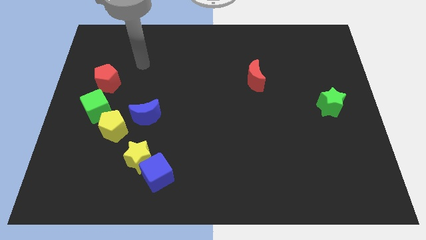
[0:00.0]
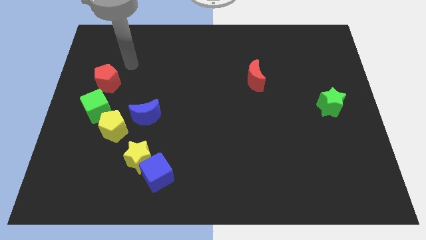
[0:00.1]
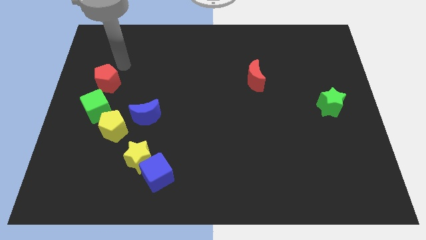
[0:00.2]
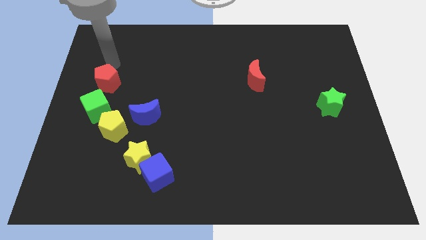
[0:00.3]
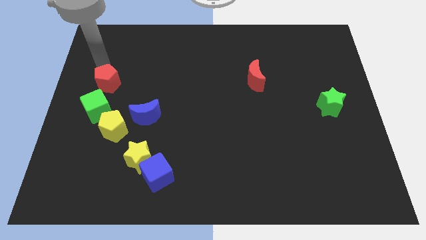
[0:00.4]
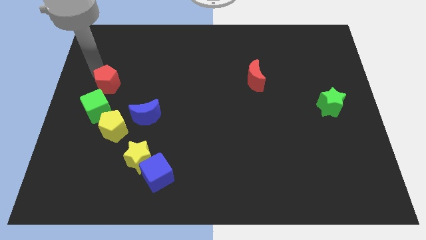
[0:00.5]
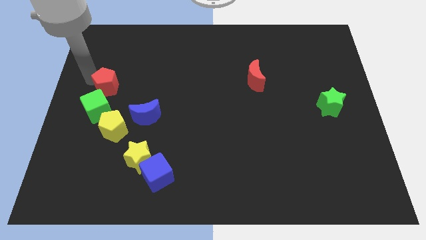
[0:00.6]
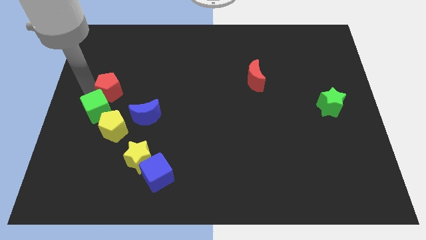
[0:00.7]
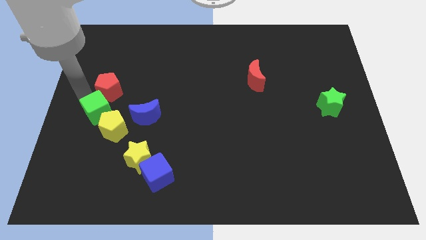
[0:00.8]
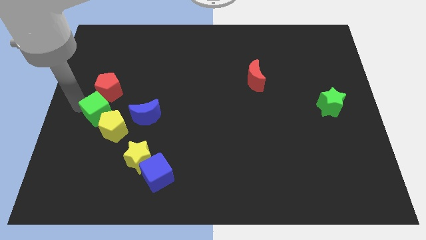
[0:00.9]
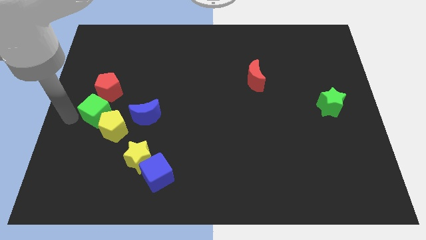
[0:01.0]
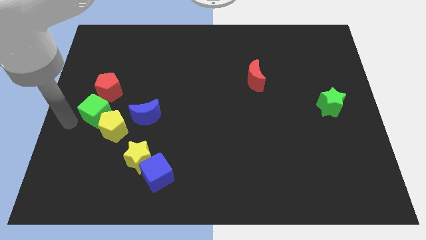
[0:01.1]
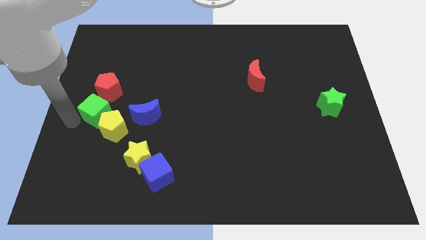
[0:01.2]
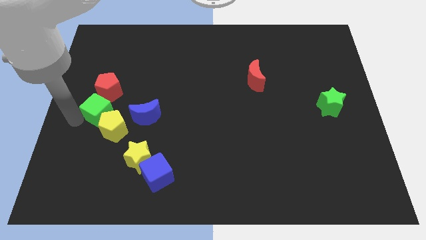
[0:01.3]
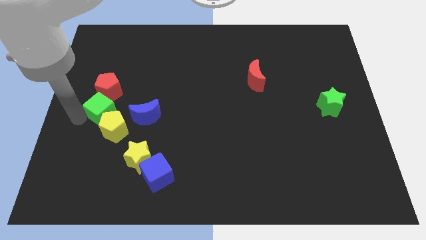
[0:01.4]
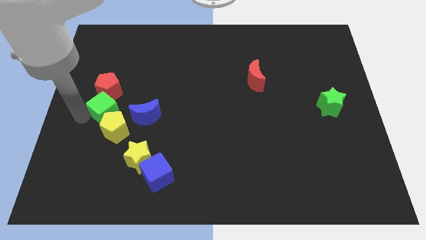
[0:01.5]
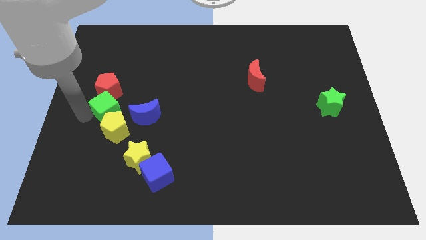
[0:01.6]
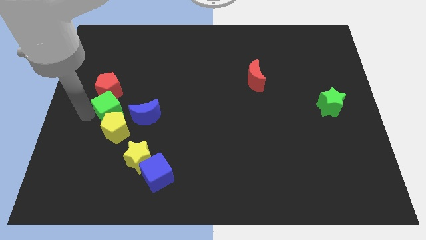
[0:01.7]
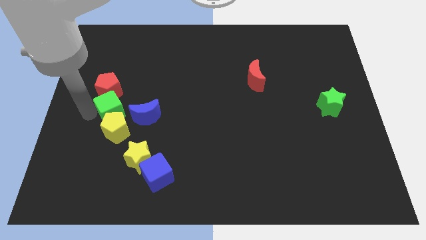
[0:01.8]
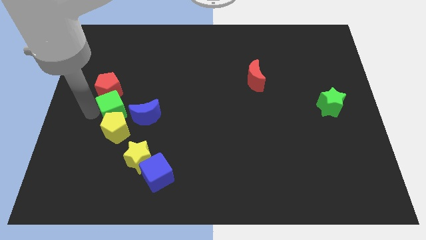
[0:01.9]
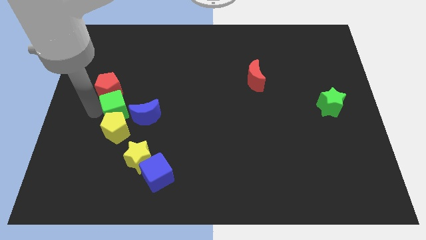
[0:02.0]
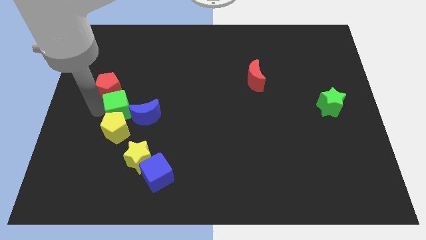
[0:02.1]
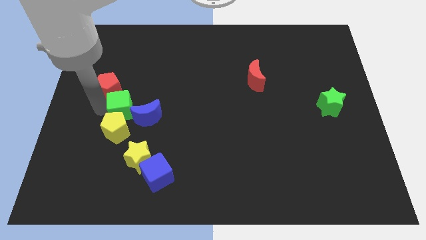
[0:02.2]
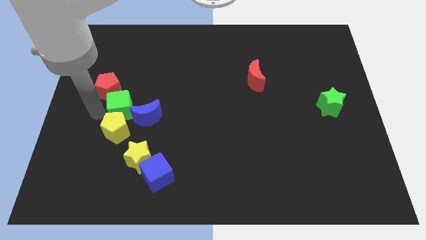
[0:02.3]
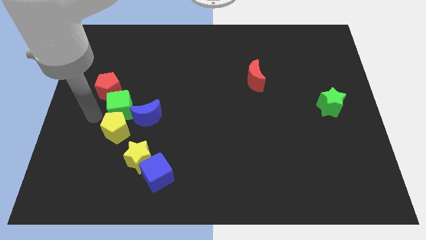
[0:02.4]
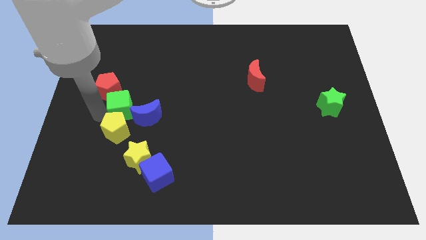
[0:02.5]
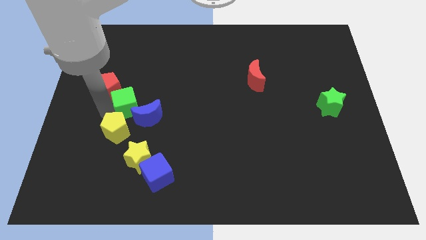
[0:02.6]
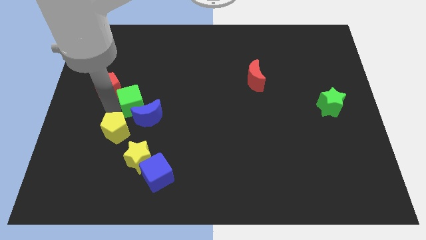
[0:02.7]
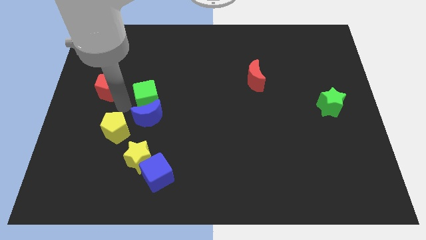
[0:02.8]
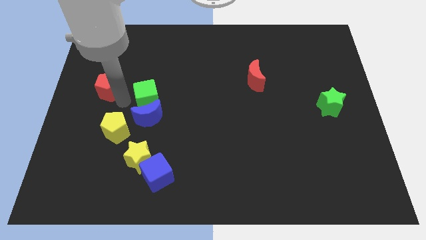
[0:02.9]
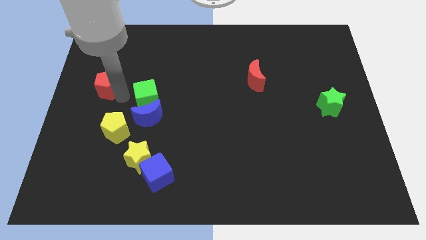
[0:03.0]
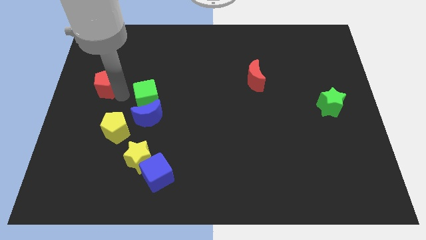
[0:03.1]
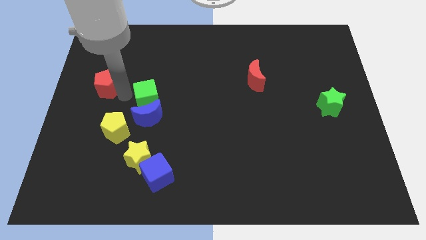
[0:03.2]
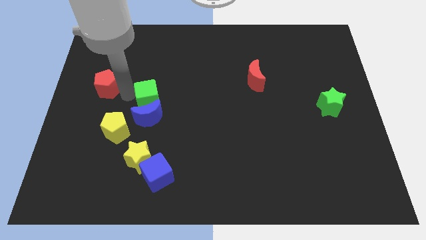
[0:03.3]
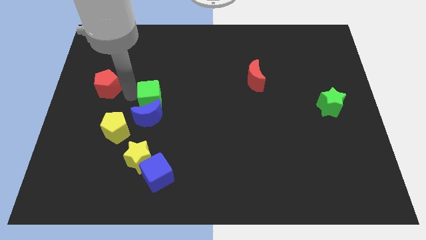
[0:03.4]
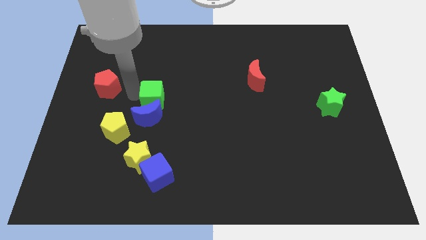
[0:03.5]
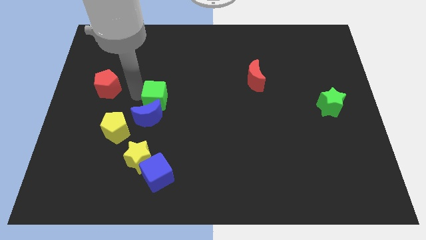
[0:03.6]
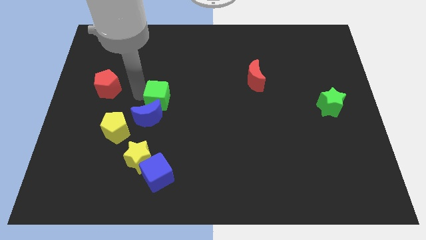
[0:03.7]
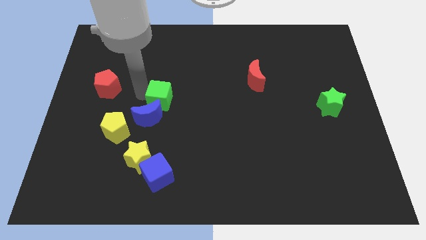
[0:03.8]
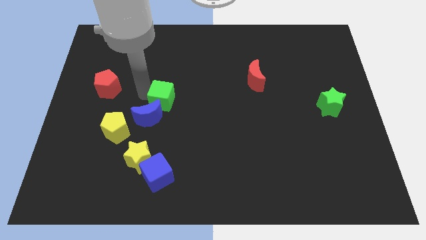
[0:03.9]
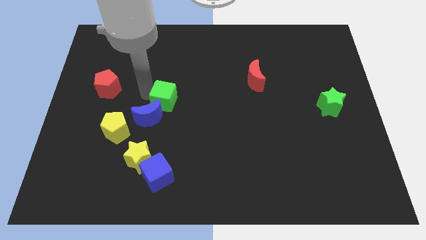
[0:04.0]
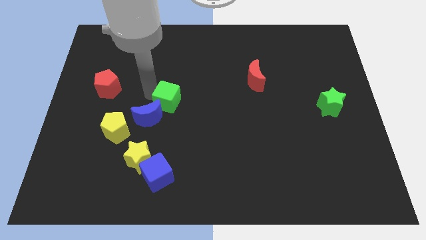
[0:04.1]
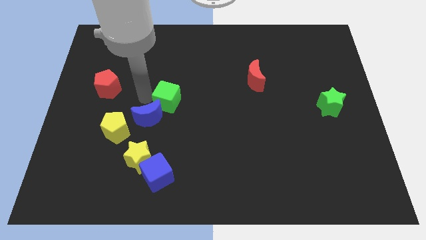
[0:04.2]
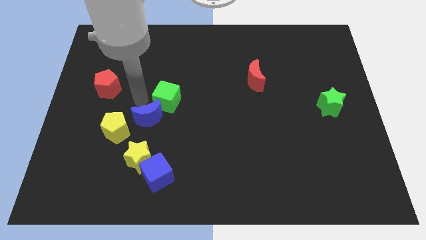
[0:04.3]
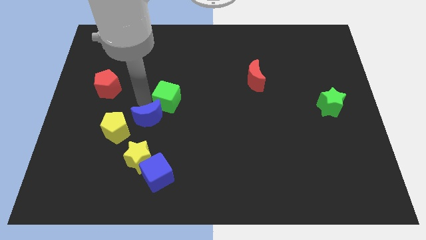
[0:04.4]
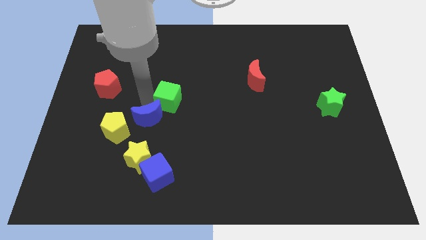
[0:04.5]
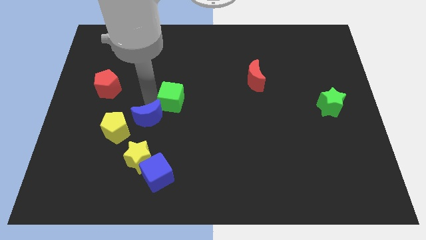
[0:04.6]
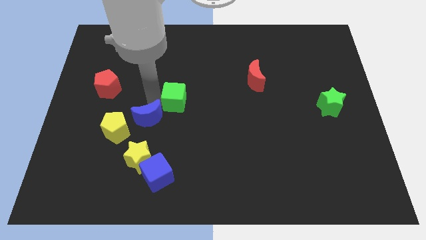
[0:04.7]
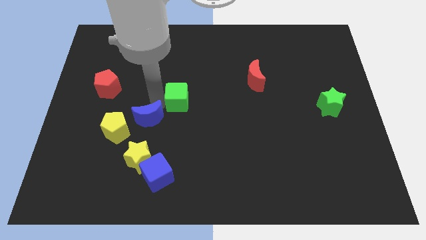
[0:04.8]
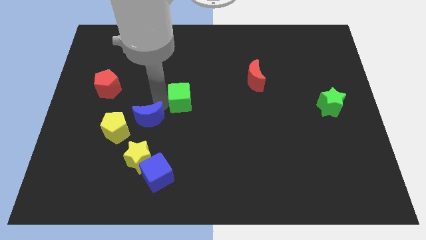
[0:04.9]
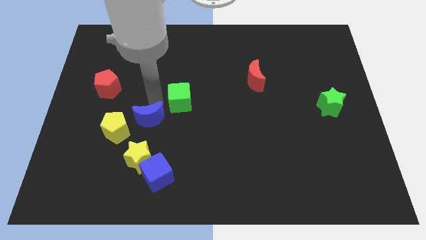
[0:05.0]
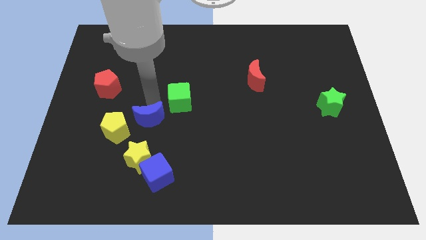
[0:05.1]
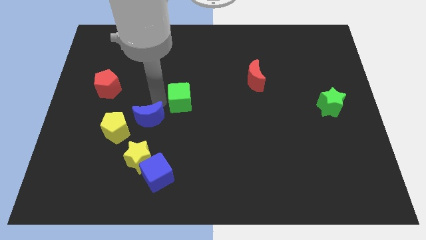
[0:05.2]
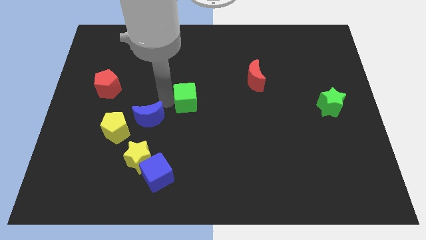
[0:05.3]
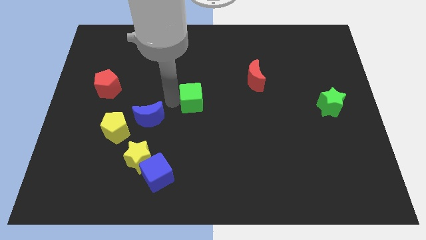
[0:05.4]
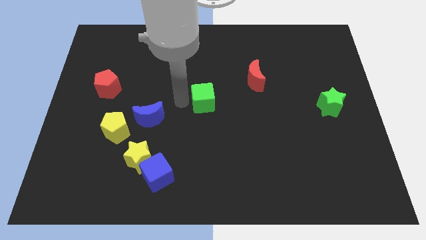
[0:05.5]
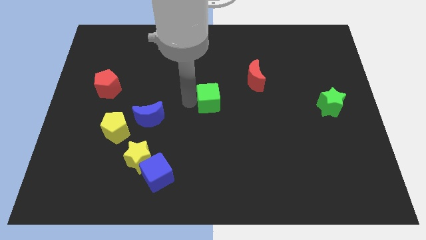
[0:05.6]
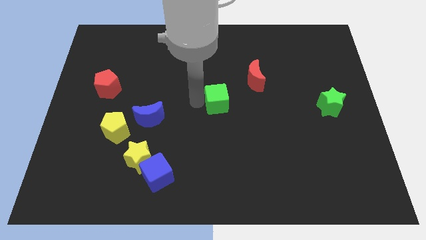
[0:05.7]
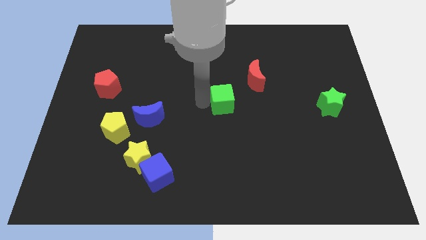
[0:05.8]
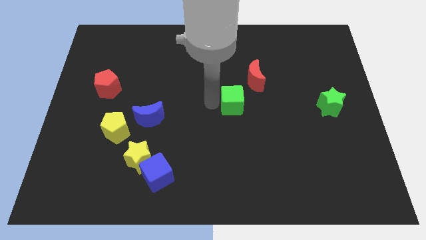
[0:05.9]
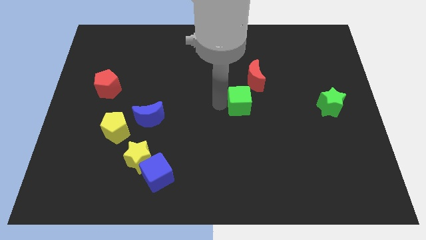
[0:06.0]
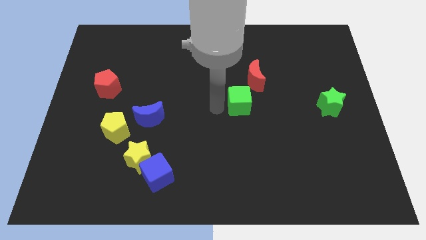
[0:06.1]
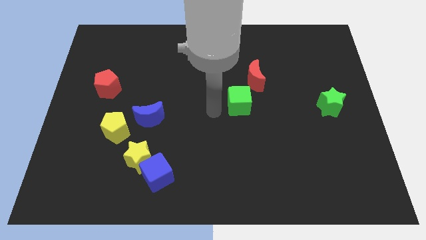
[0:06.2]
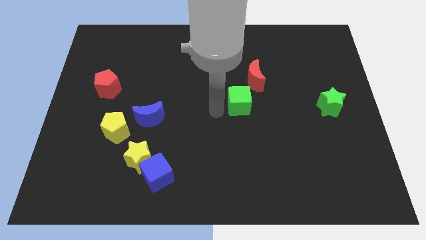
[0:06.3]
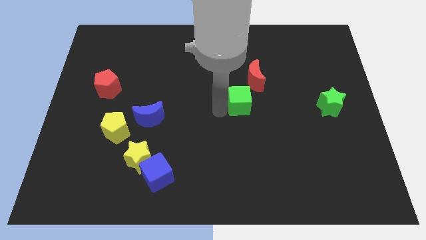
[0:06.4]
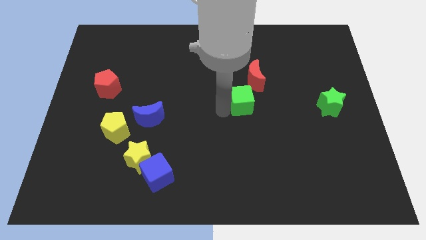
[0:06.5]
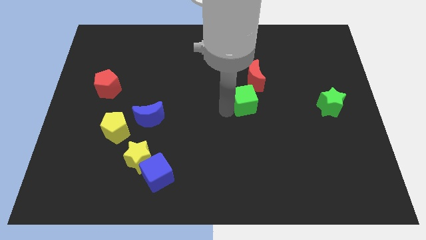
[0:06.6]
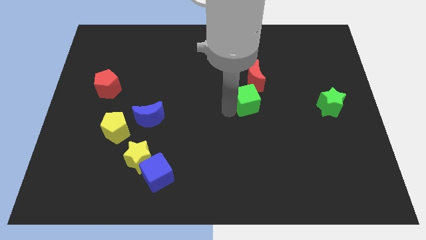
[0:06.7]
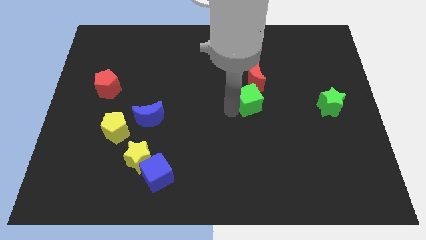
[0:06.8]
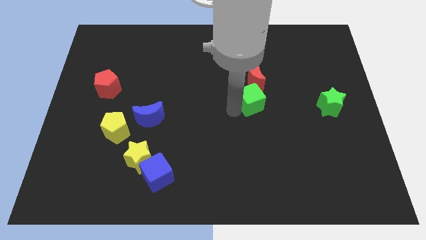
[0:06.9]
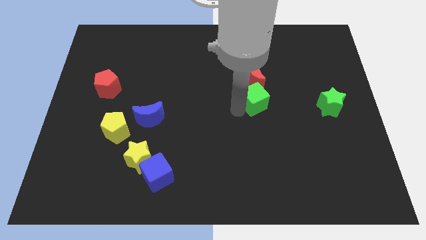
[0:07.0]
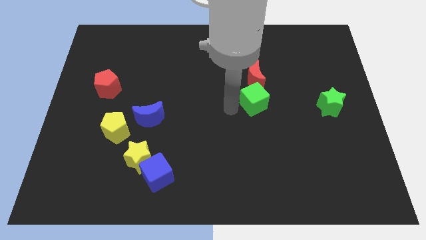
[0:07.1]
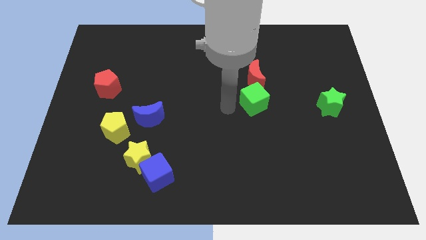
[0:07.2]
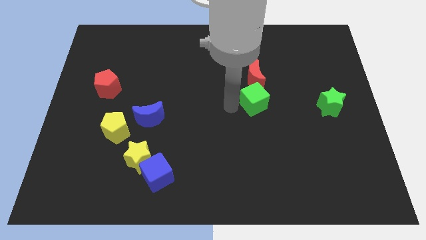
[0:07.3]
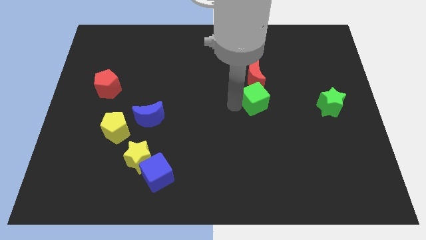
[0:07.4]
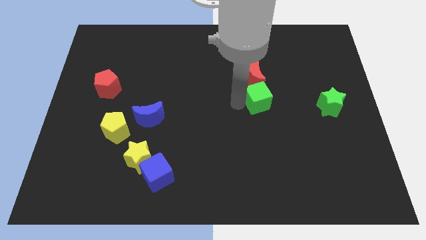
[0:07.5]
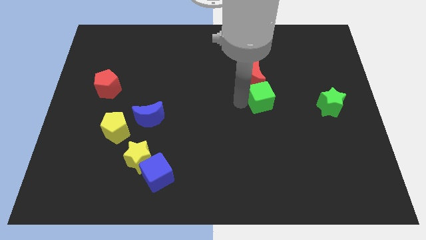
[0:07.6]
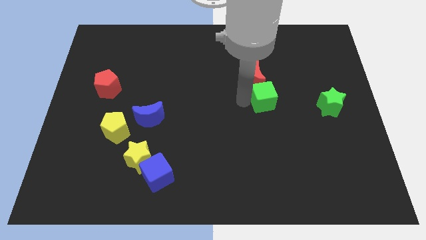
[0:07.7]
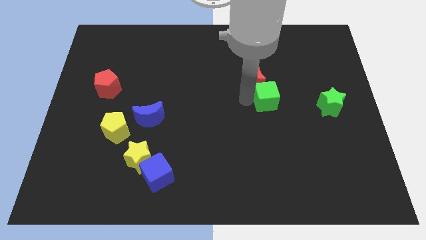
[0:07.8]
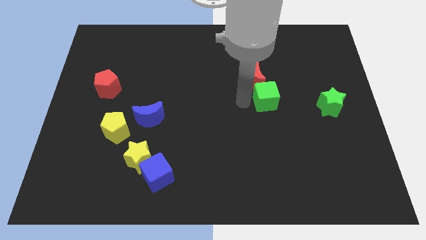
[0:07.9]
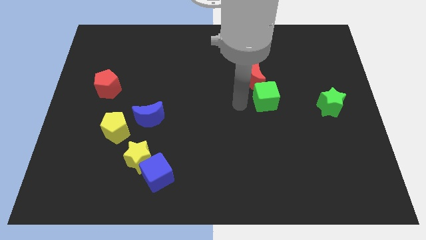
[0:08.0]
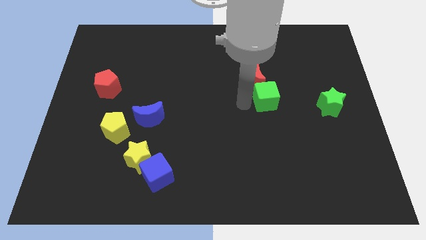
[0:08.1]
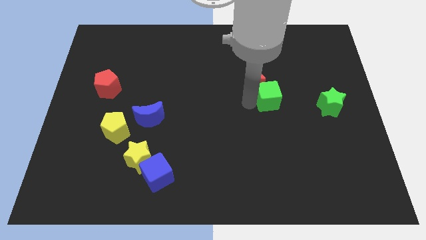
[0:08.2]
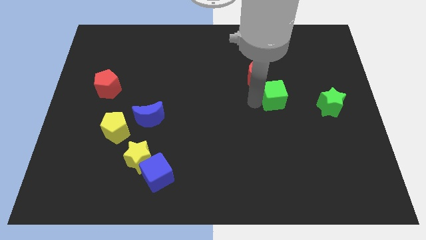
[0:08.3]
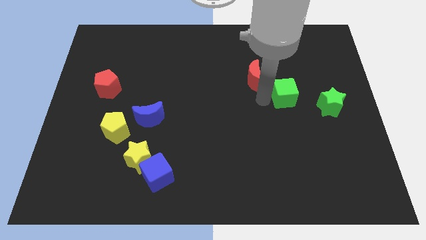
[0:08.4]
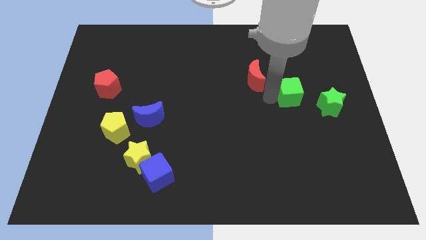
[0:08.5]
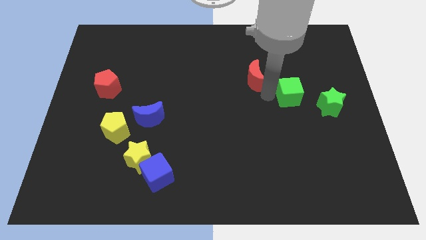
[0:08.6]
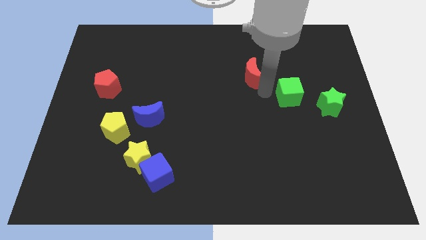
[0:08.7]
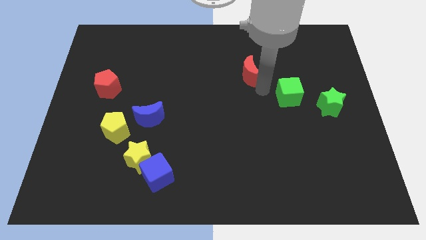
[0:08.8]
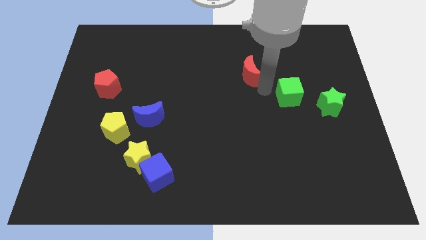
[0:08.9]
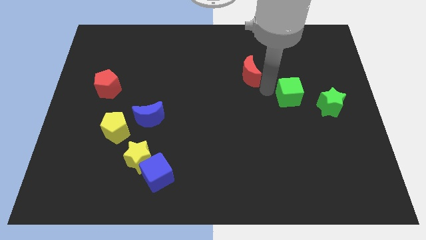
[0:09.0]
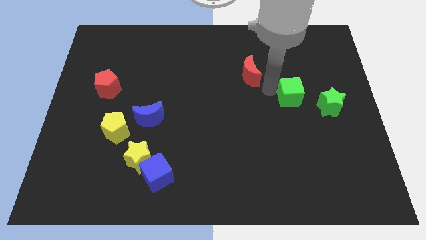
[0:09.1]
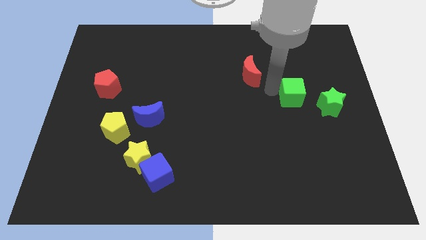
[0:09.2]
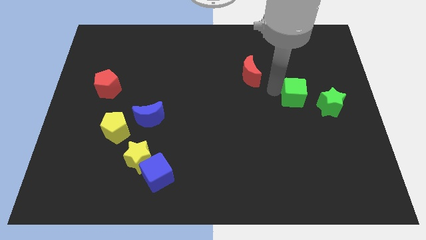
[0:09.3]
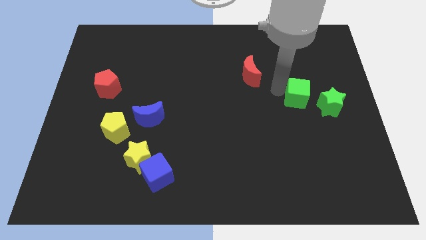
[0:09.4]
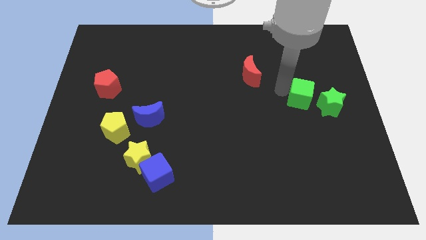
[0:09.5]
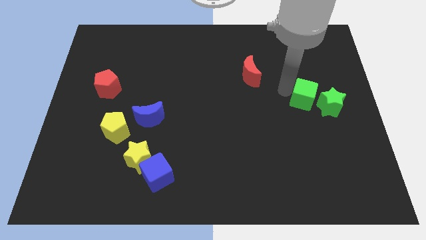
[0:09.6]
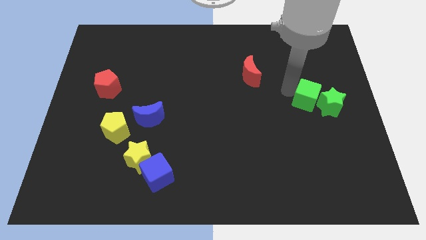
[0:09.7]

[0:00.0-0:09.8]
move the green cube to the green star
